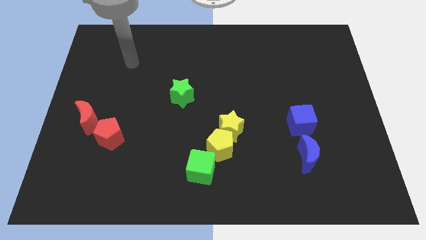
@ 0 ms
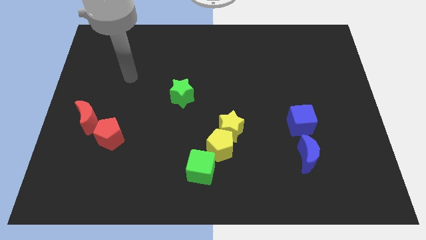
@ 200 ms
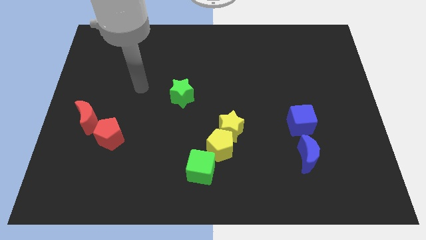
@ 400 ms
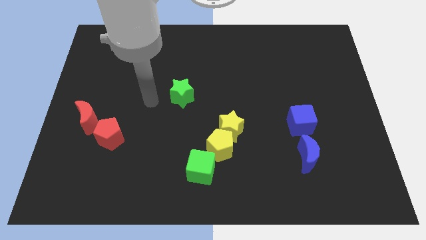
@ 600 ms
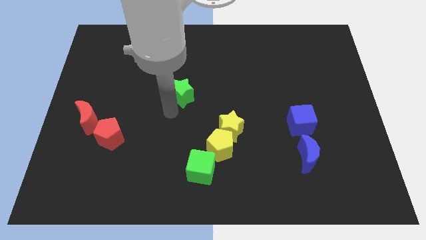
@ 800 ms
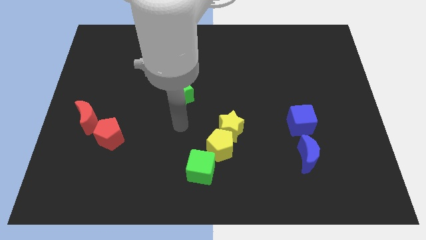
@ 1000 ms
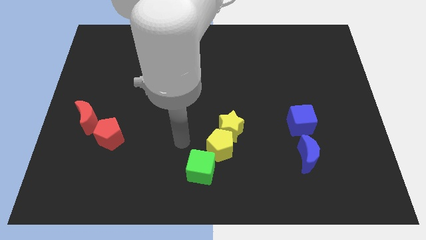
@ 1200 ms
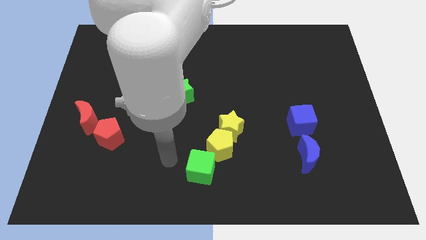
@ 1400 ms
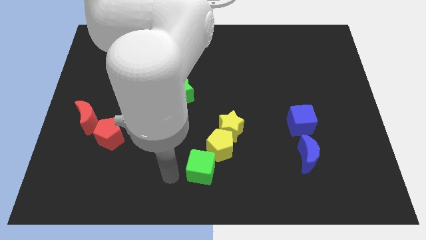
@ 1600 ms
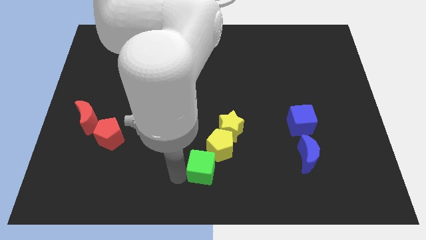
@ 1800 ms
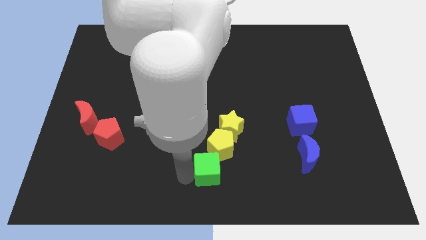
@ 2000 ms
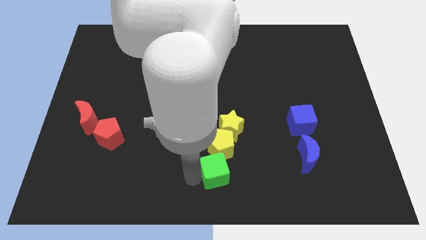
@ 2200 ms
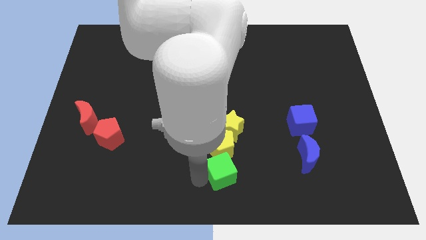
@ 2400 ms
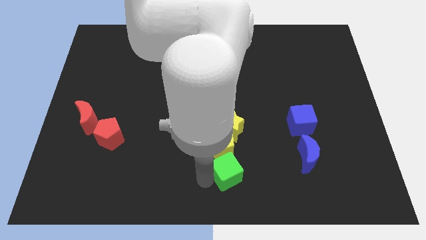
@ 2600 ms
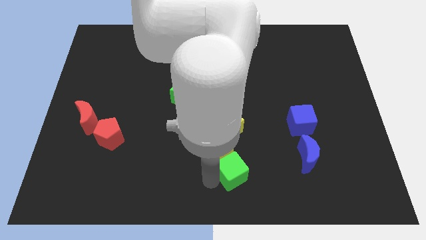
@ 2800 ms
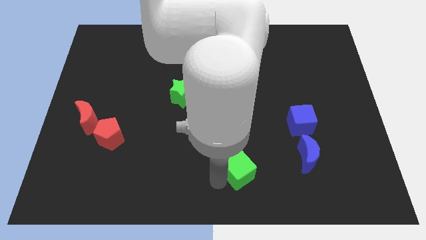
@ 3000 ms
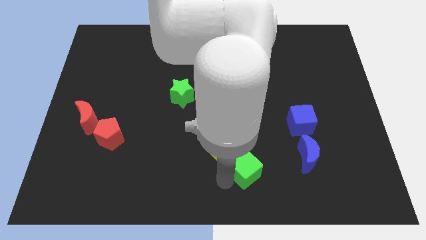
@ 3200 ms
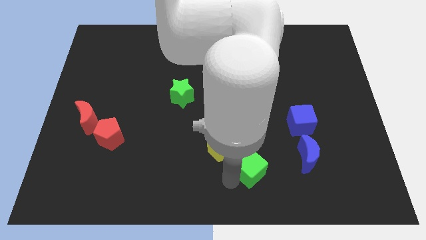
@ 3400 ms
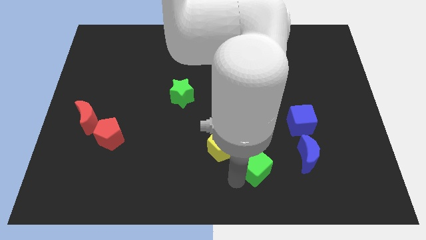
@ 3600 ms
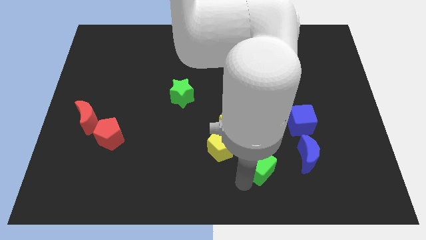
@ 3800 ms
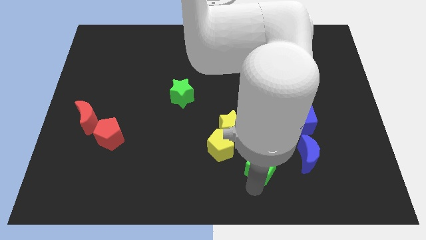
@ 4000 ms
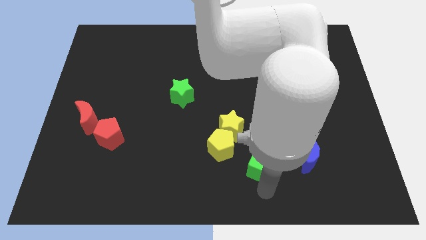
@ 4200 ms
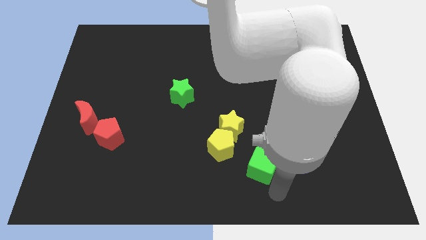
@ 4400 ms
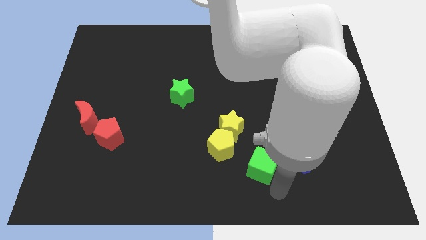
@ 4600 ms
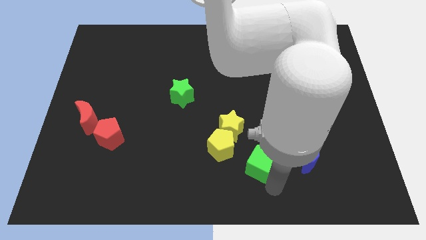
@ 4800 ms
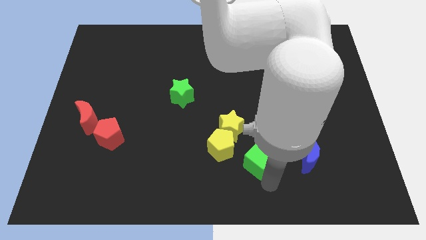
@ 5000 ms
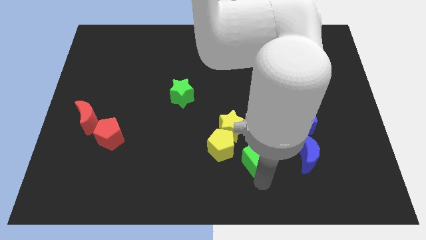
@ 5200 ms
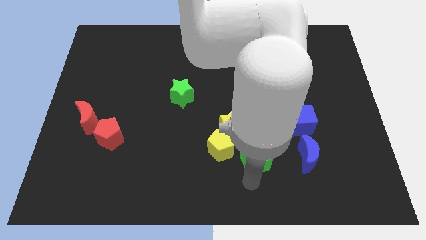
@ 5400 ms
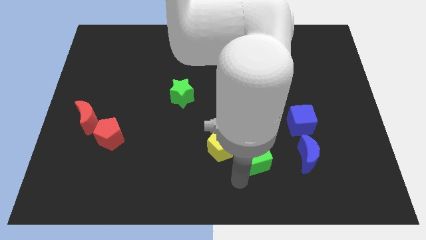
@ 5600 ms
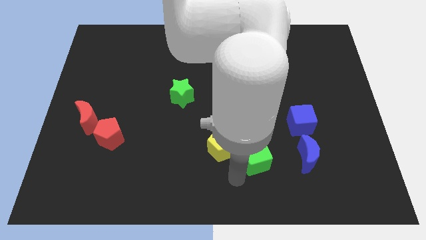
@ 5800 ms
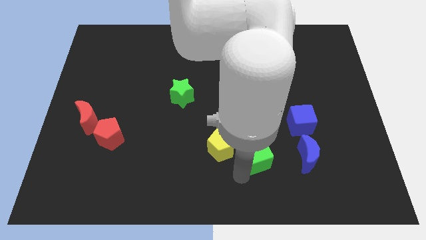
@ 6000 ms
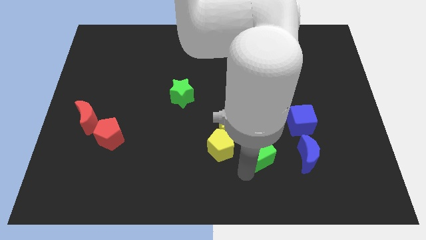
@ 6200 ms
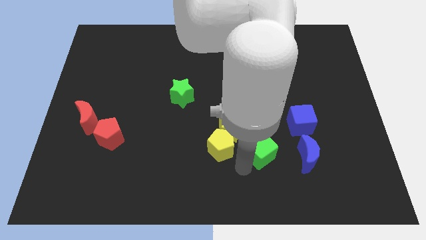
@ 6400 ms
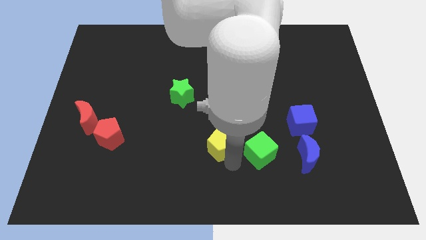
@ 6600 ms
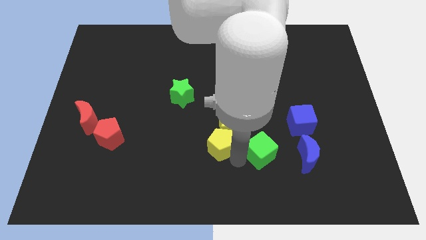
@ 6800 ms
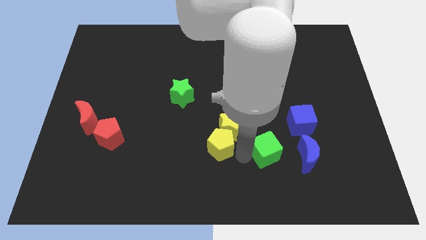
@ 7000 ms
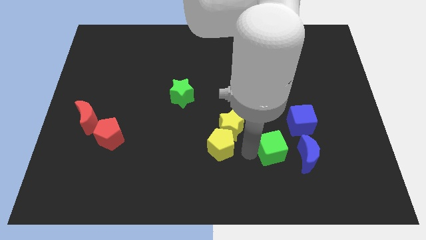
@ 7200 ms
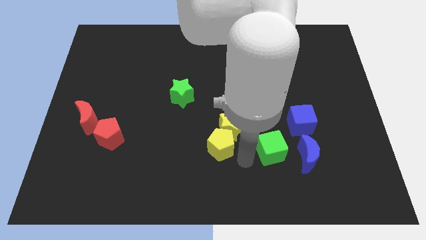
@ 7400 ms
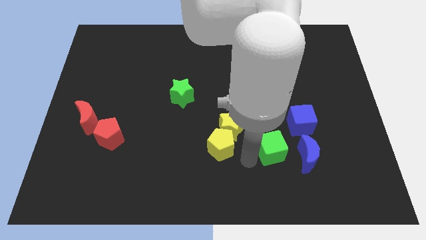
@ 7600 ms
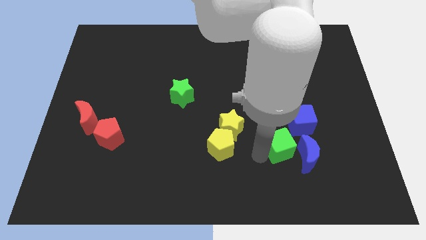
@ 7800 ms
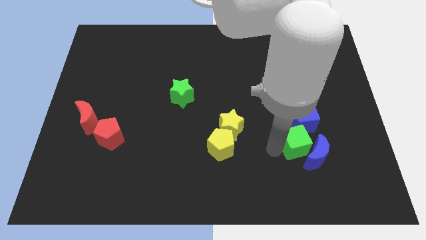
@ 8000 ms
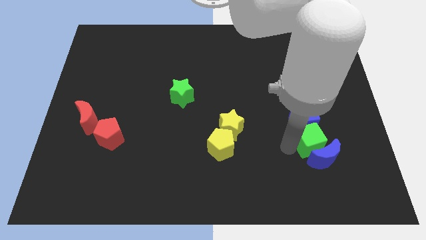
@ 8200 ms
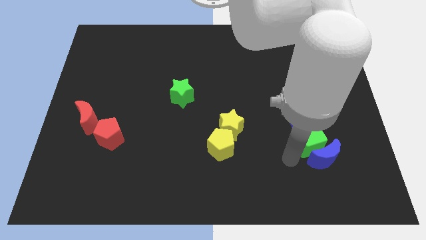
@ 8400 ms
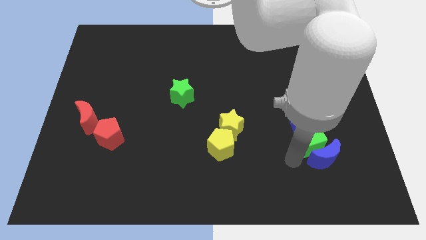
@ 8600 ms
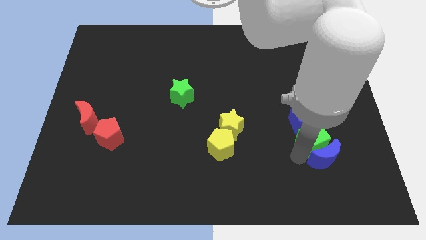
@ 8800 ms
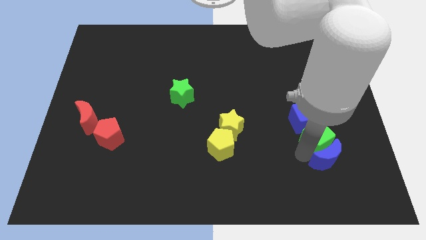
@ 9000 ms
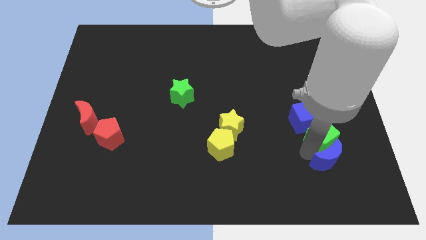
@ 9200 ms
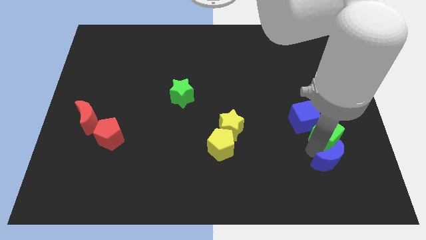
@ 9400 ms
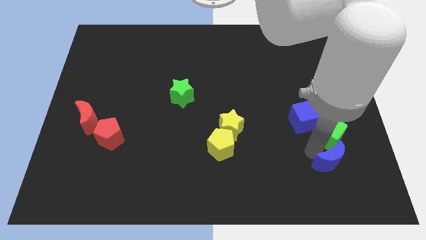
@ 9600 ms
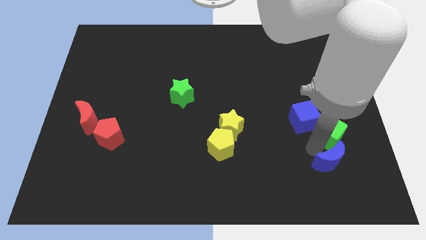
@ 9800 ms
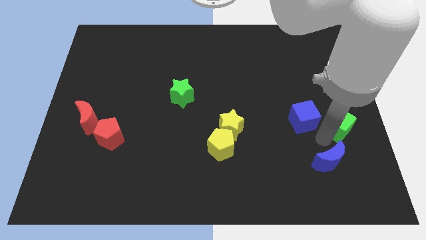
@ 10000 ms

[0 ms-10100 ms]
slide the green cube to the right side of the board

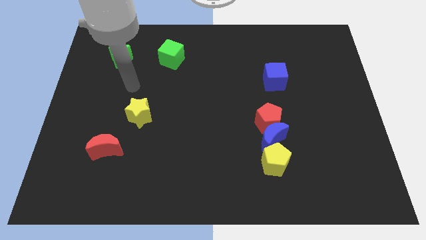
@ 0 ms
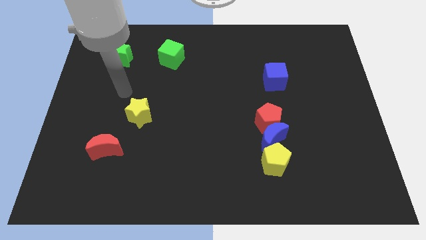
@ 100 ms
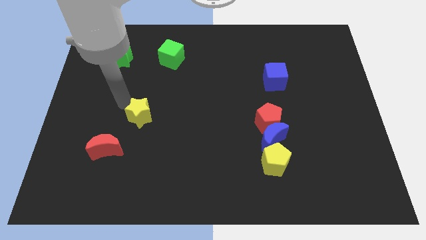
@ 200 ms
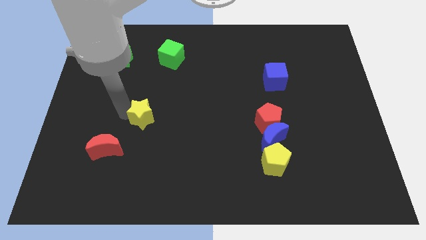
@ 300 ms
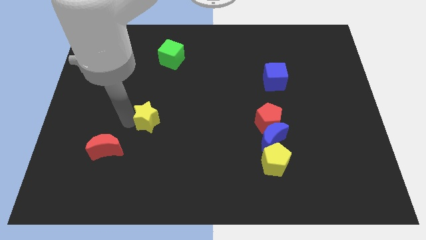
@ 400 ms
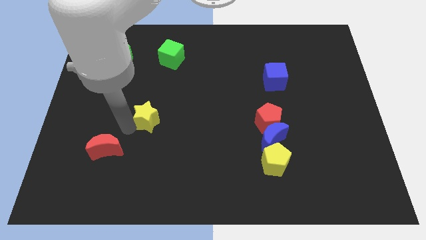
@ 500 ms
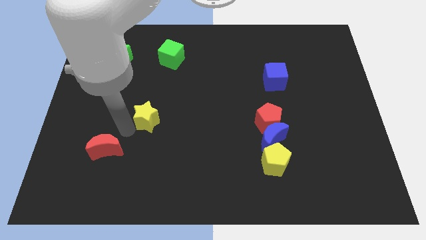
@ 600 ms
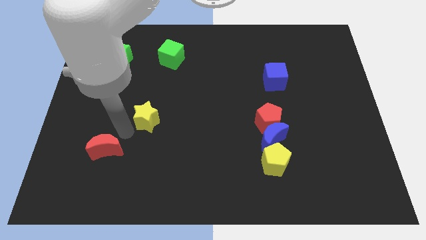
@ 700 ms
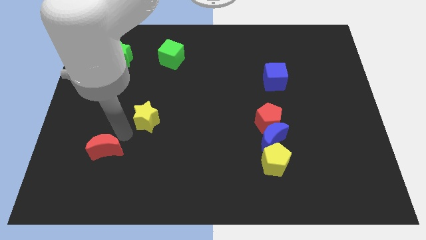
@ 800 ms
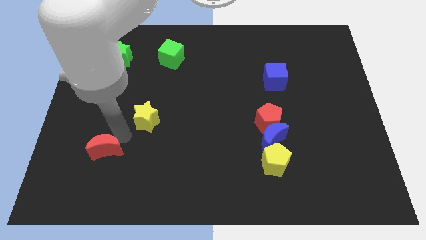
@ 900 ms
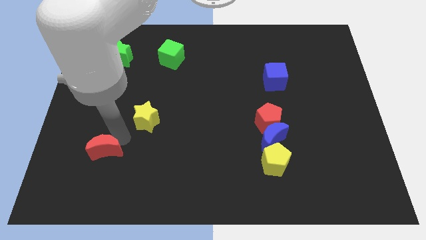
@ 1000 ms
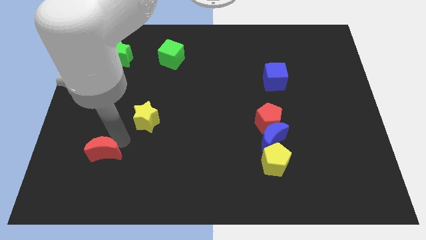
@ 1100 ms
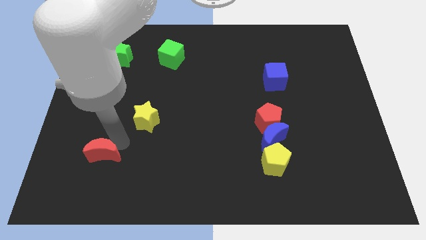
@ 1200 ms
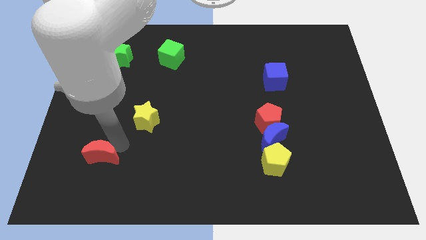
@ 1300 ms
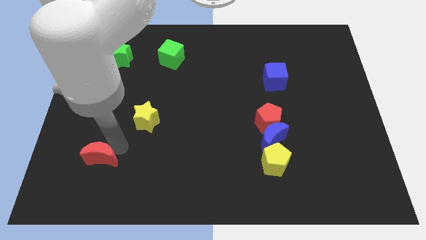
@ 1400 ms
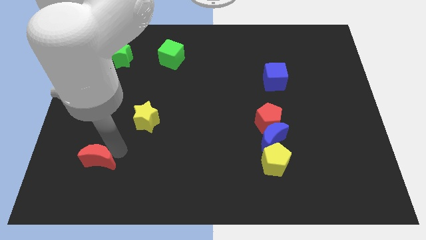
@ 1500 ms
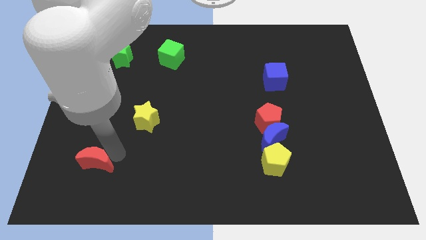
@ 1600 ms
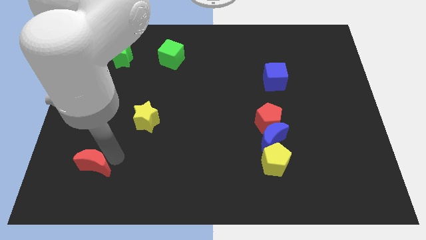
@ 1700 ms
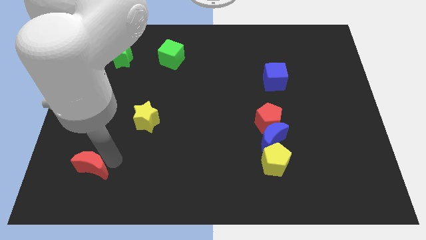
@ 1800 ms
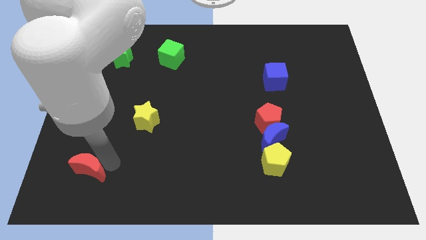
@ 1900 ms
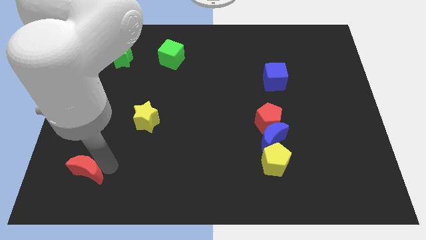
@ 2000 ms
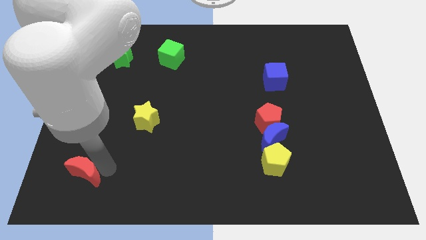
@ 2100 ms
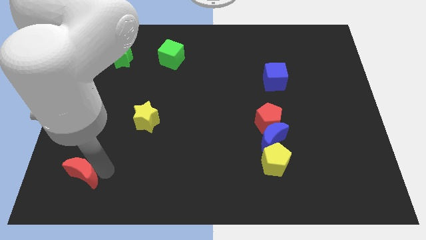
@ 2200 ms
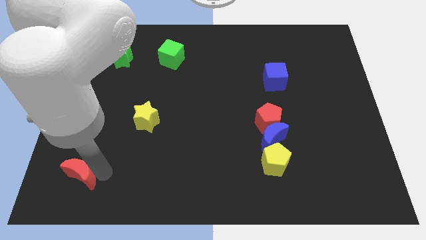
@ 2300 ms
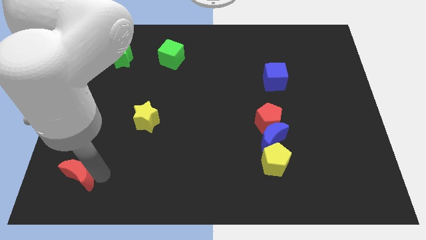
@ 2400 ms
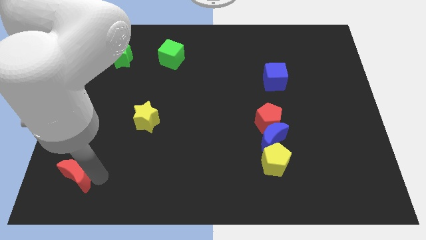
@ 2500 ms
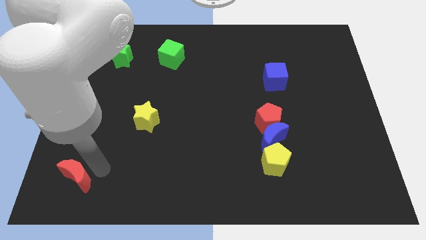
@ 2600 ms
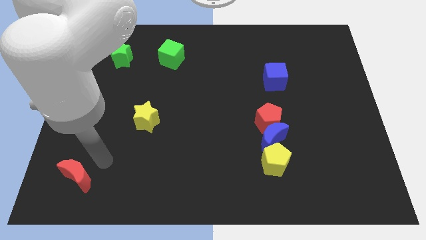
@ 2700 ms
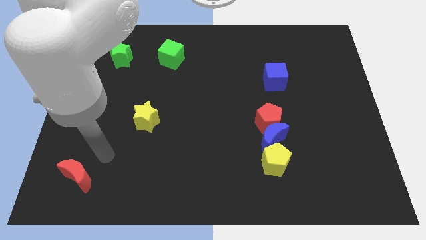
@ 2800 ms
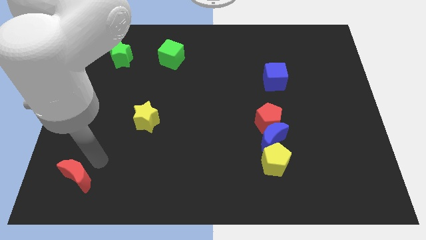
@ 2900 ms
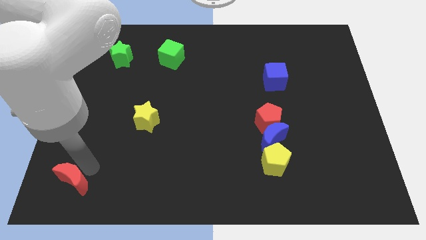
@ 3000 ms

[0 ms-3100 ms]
move the red moon to the lower left corner
